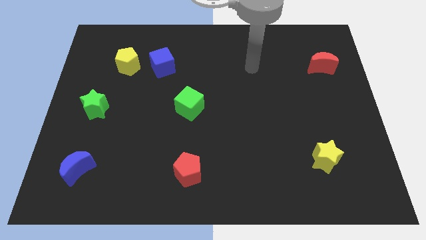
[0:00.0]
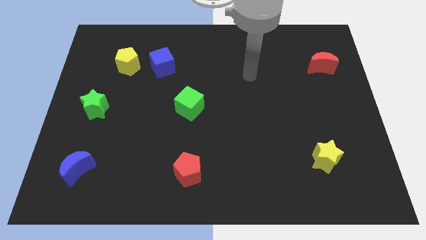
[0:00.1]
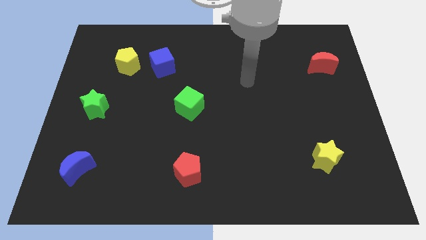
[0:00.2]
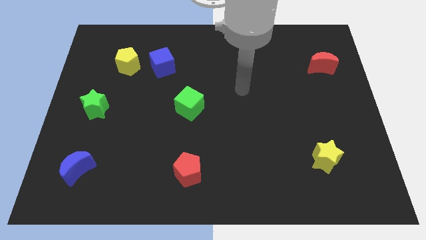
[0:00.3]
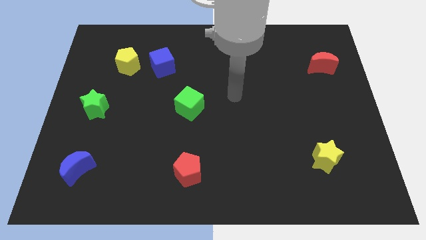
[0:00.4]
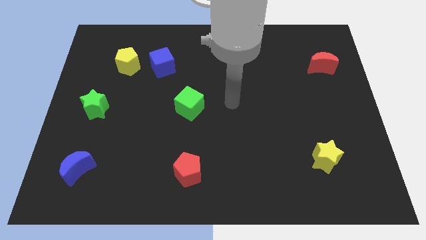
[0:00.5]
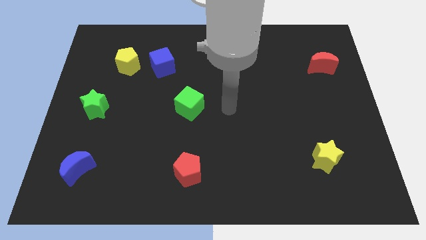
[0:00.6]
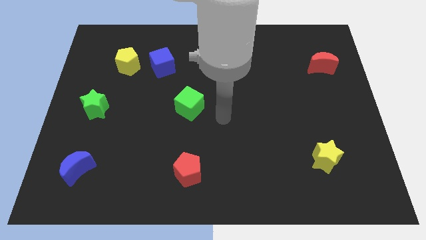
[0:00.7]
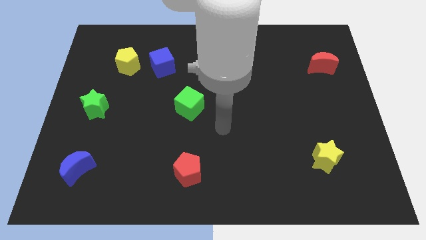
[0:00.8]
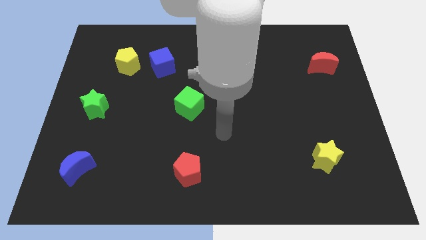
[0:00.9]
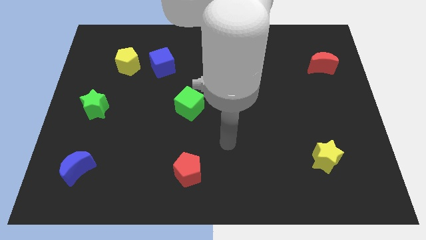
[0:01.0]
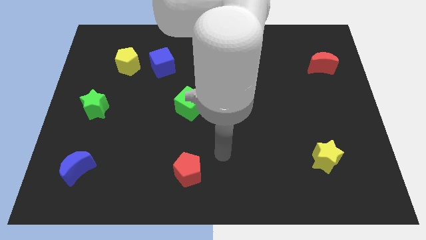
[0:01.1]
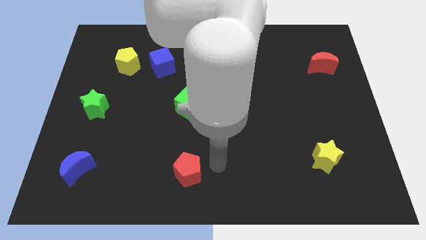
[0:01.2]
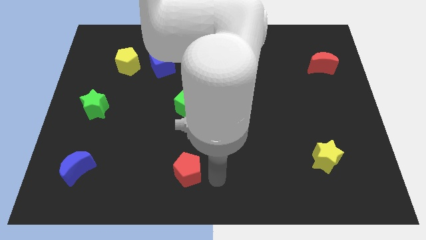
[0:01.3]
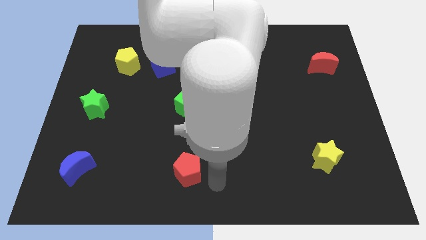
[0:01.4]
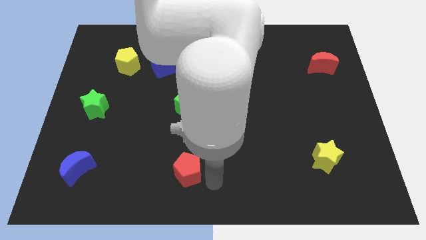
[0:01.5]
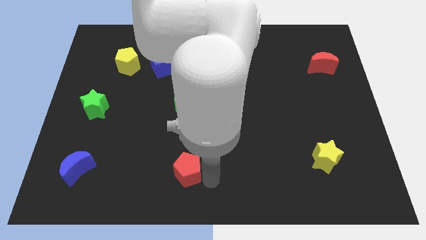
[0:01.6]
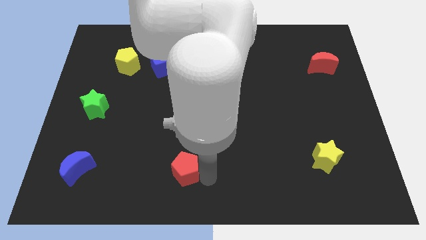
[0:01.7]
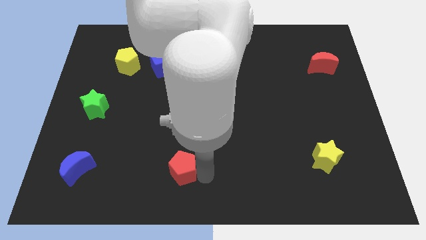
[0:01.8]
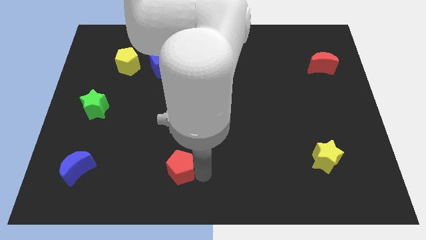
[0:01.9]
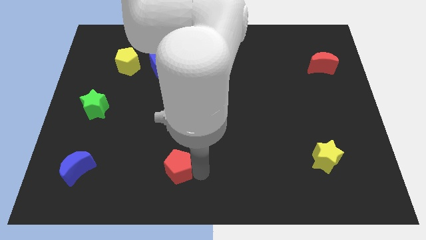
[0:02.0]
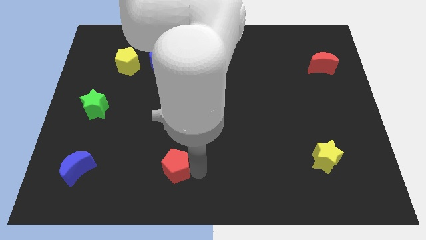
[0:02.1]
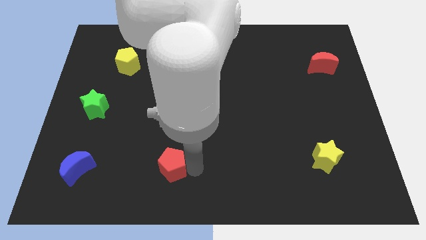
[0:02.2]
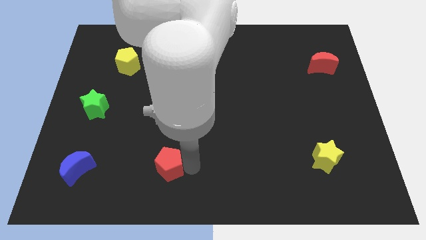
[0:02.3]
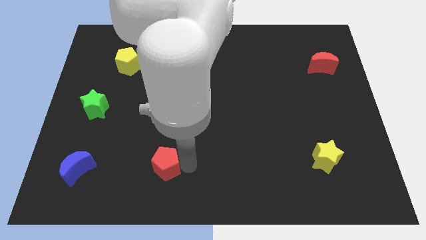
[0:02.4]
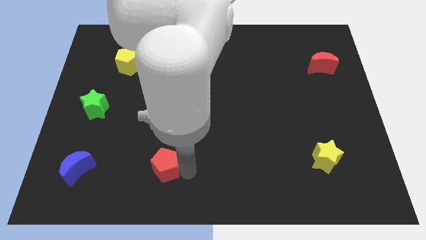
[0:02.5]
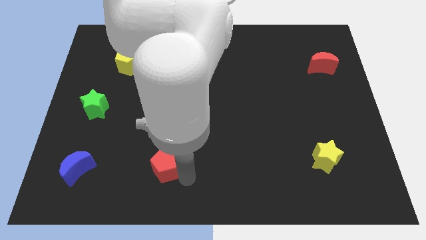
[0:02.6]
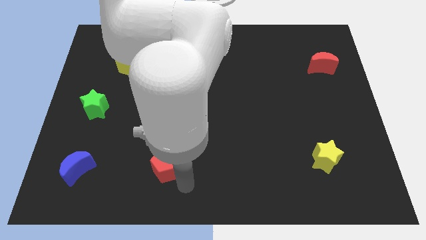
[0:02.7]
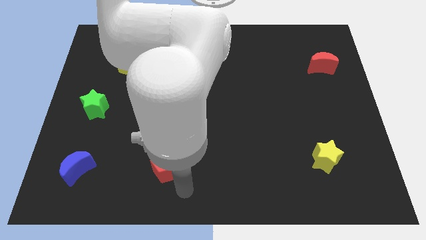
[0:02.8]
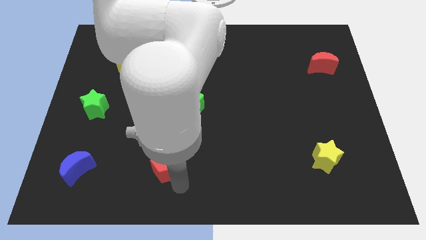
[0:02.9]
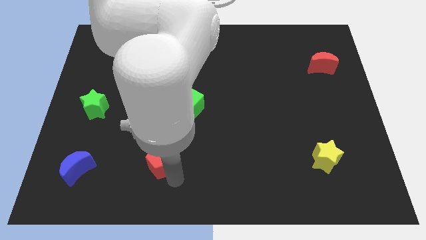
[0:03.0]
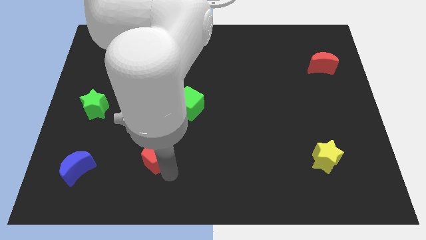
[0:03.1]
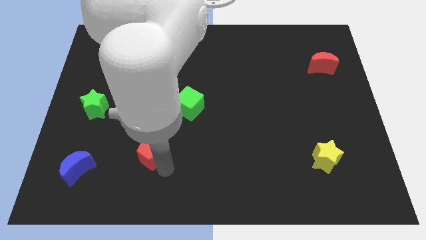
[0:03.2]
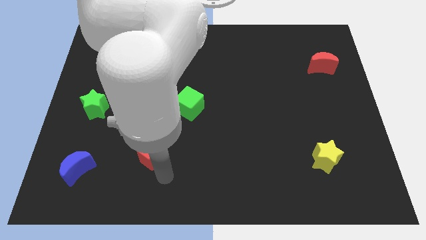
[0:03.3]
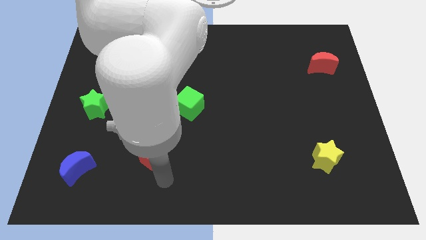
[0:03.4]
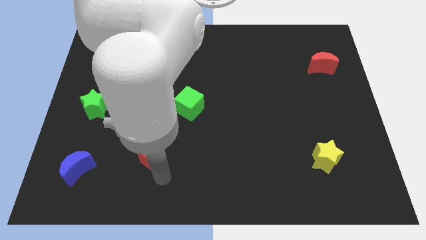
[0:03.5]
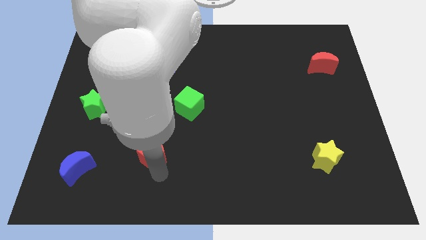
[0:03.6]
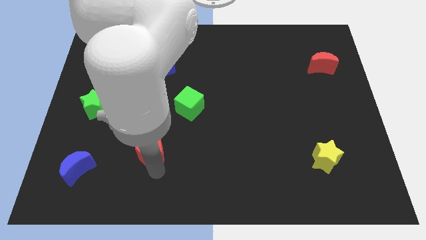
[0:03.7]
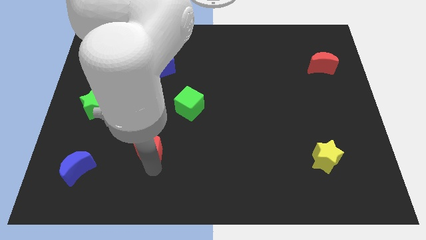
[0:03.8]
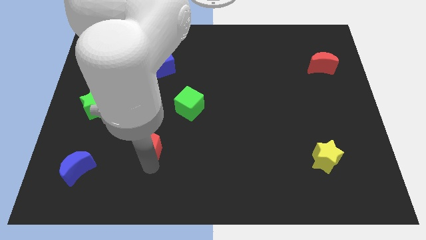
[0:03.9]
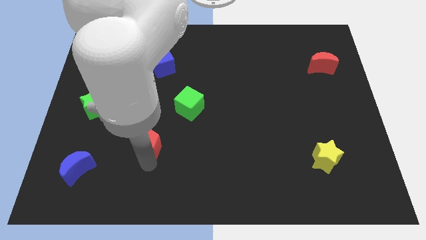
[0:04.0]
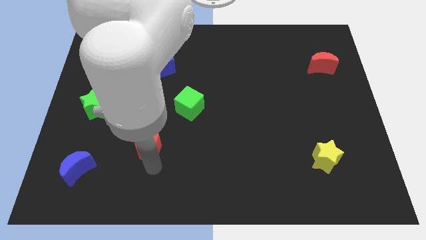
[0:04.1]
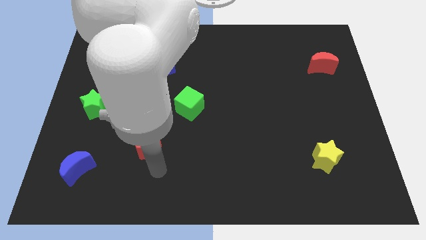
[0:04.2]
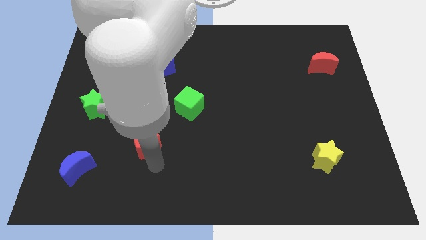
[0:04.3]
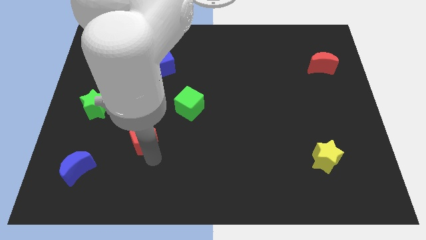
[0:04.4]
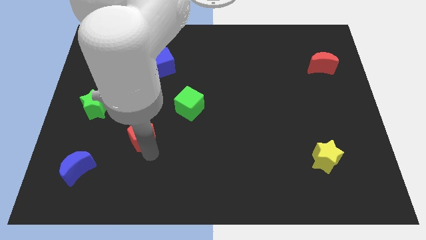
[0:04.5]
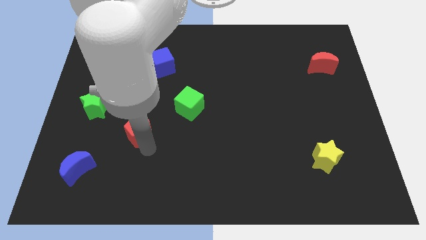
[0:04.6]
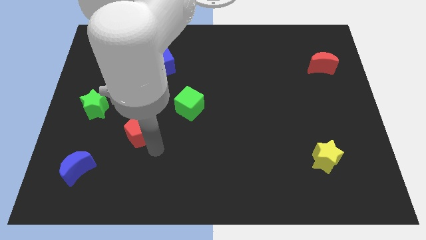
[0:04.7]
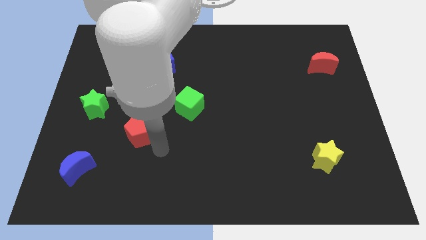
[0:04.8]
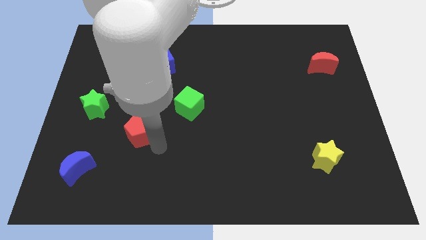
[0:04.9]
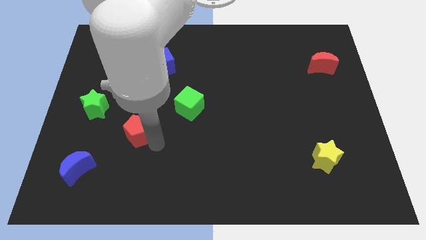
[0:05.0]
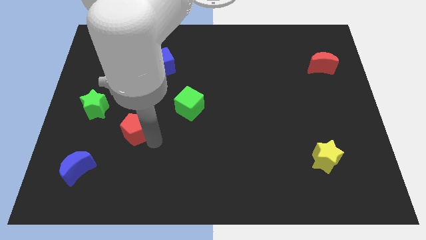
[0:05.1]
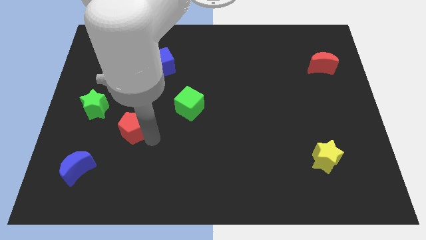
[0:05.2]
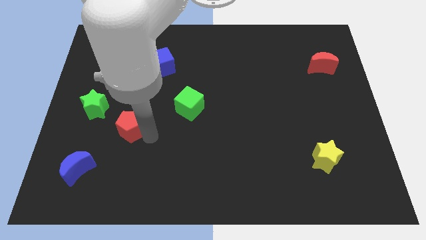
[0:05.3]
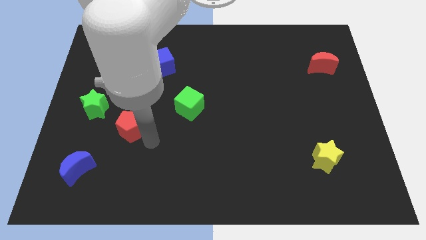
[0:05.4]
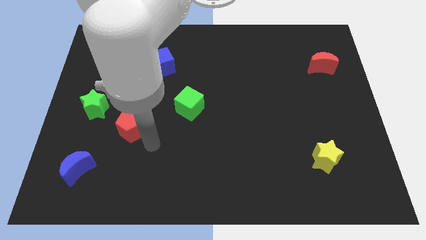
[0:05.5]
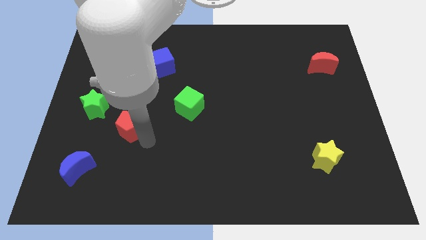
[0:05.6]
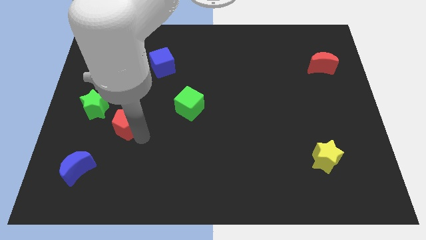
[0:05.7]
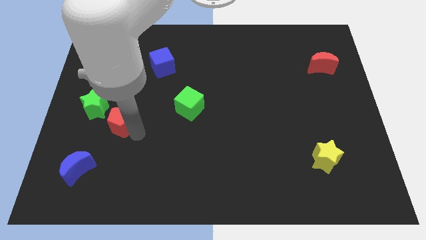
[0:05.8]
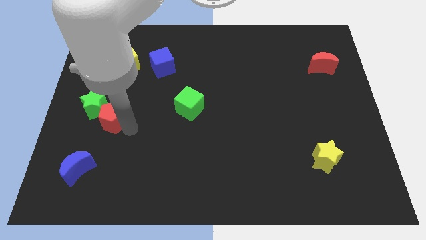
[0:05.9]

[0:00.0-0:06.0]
put the red pentagon close to the green star

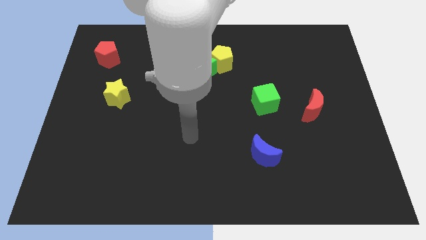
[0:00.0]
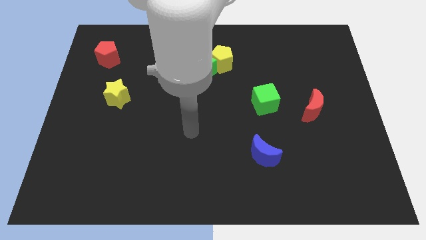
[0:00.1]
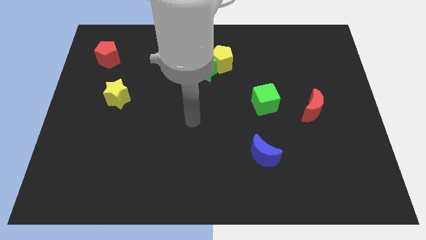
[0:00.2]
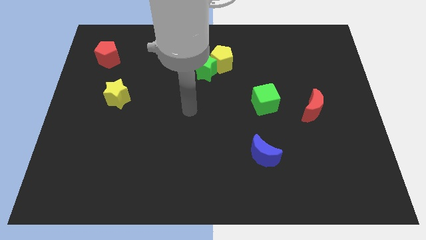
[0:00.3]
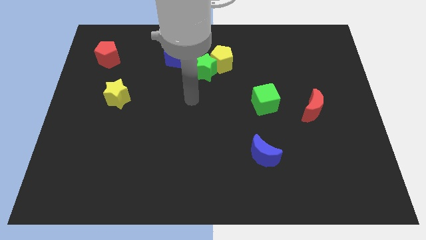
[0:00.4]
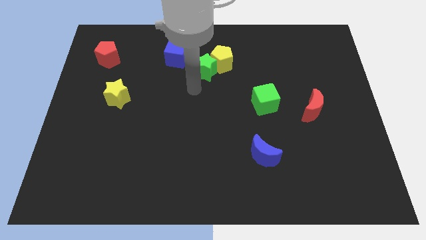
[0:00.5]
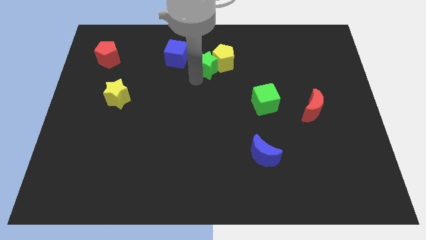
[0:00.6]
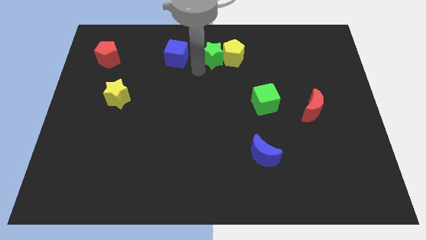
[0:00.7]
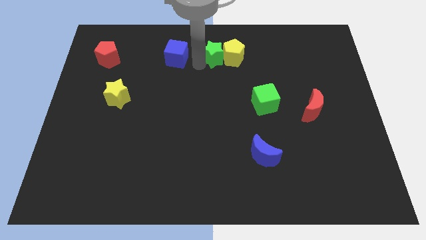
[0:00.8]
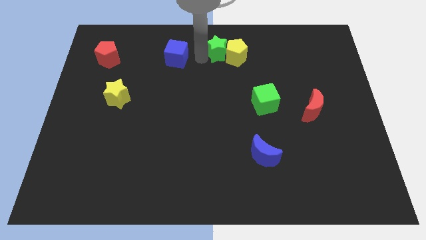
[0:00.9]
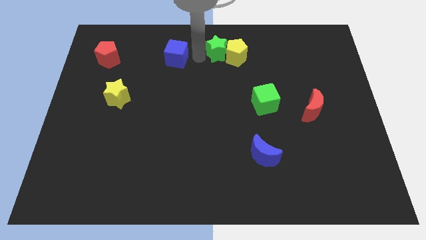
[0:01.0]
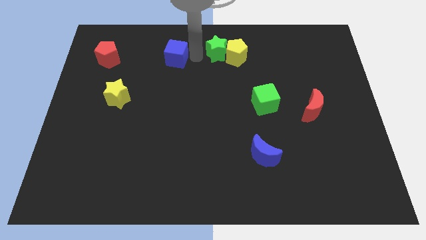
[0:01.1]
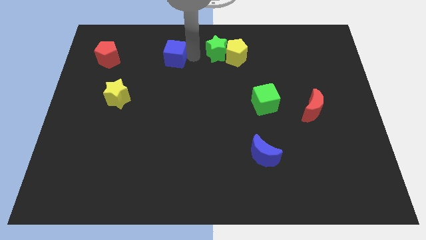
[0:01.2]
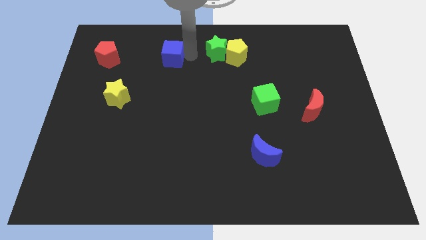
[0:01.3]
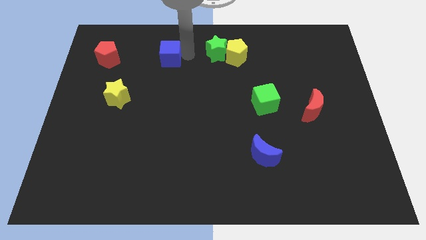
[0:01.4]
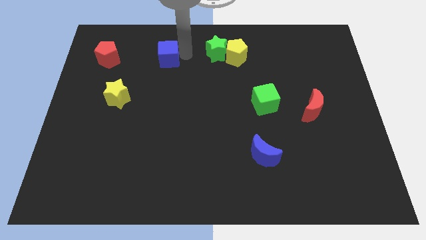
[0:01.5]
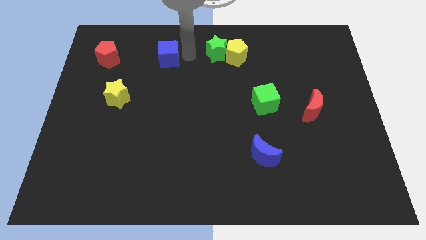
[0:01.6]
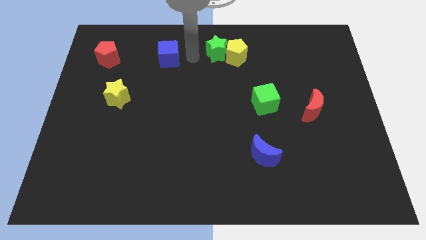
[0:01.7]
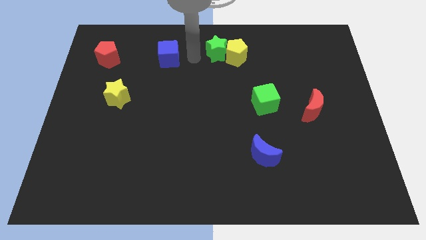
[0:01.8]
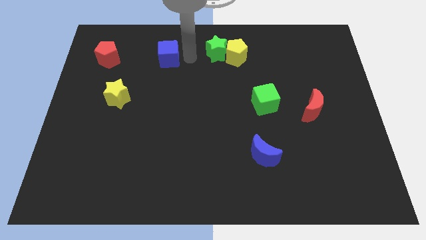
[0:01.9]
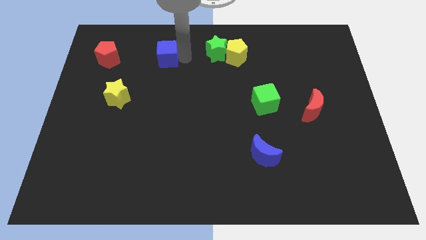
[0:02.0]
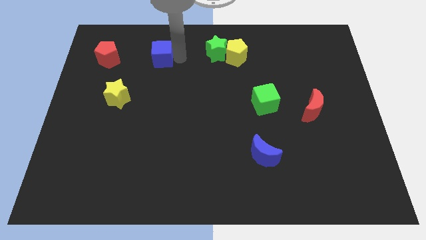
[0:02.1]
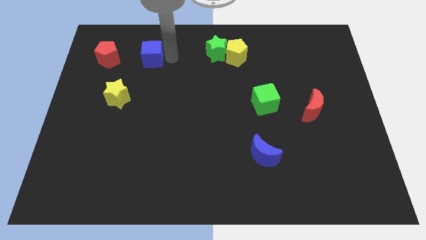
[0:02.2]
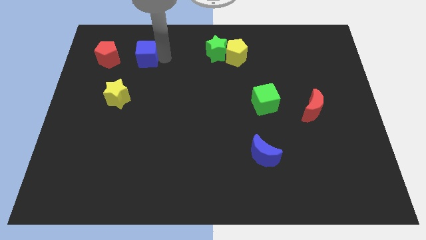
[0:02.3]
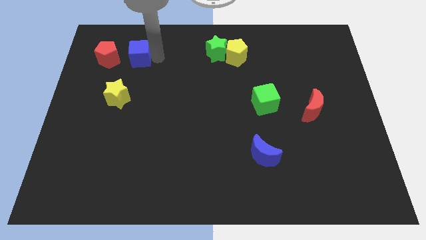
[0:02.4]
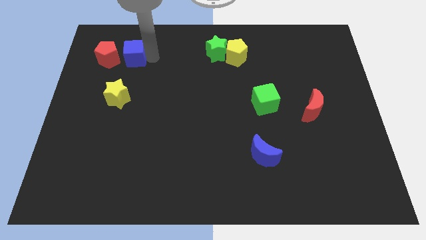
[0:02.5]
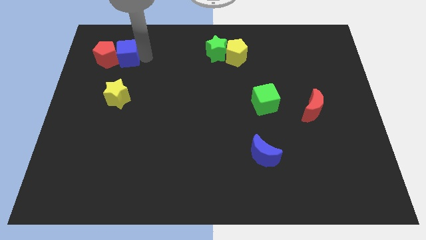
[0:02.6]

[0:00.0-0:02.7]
slide the blue cube towards the red pentagon
